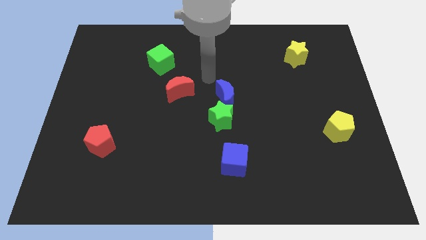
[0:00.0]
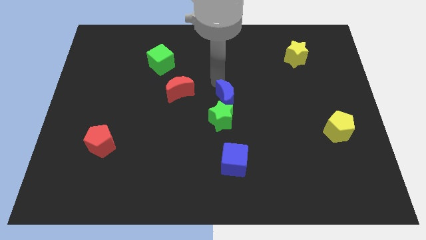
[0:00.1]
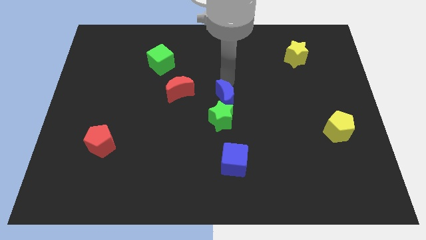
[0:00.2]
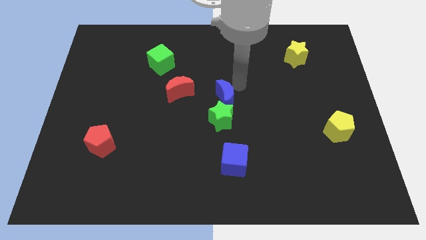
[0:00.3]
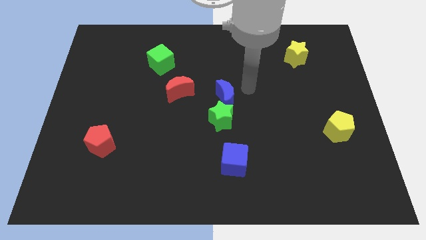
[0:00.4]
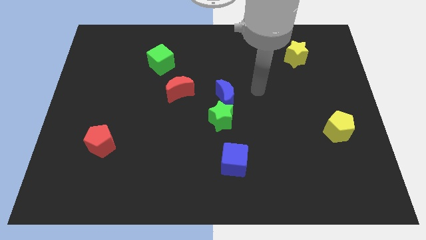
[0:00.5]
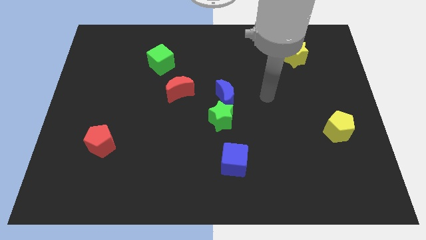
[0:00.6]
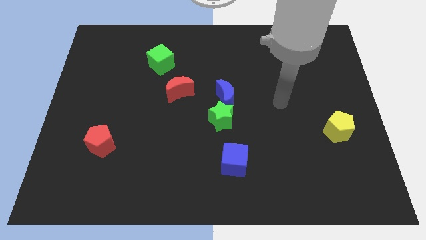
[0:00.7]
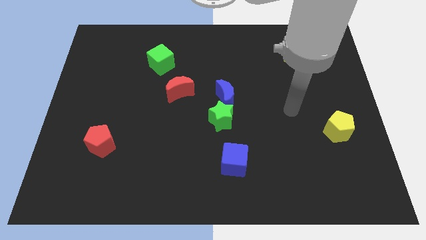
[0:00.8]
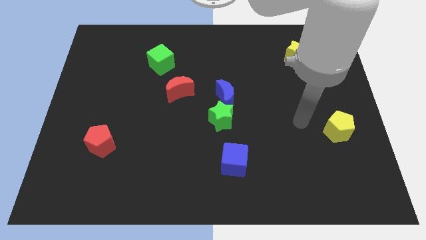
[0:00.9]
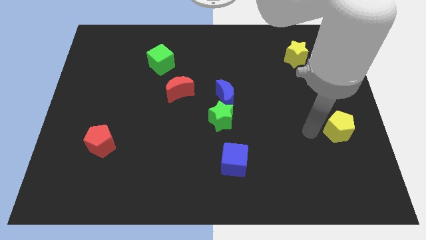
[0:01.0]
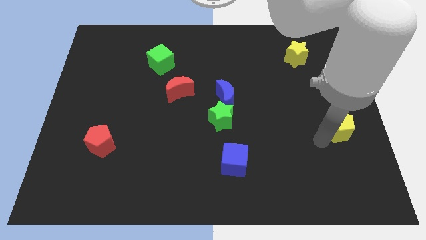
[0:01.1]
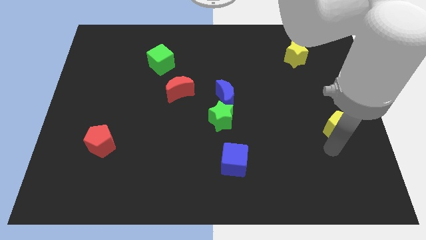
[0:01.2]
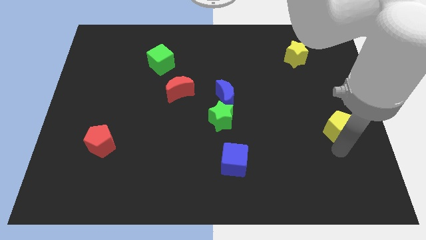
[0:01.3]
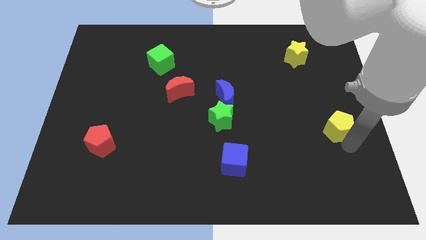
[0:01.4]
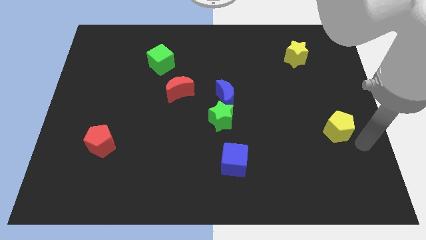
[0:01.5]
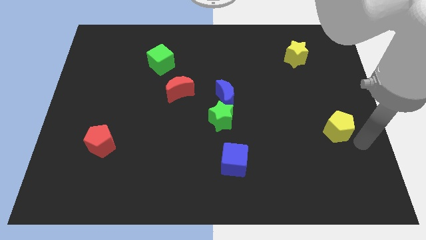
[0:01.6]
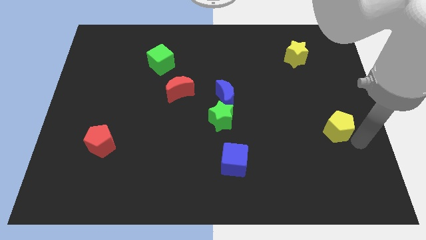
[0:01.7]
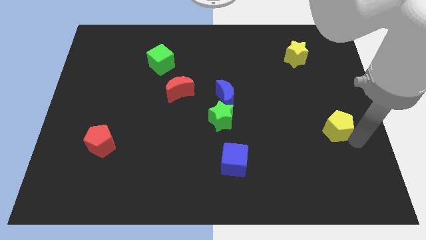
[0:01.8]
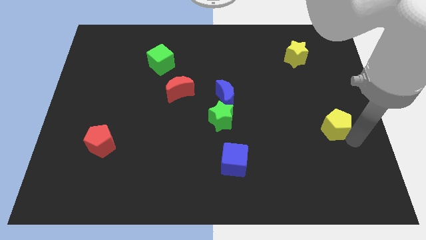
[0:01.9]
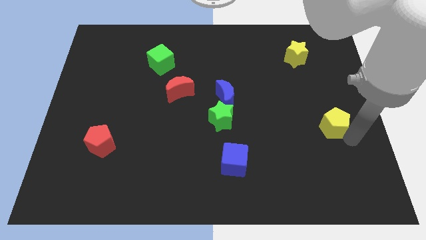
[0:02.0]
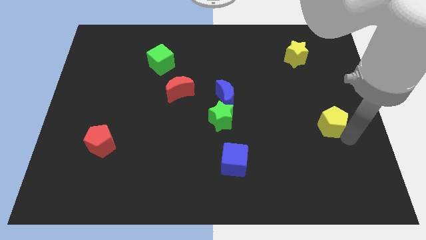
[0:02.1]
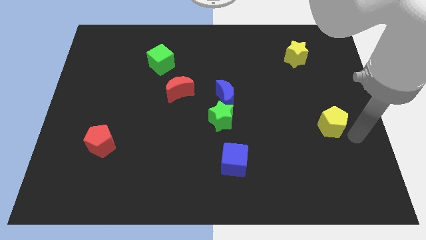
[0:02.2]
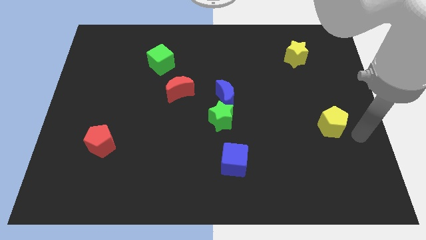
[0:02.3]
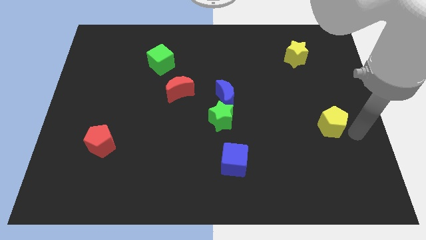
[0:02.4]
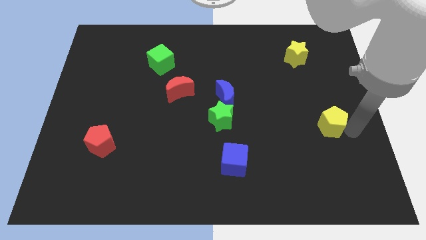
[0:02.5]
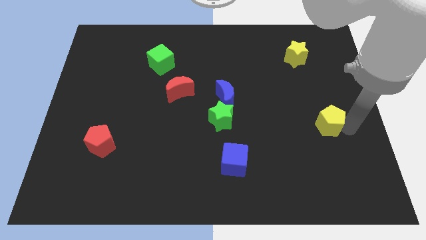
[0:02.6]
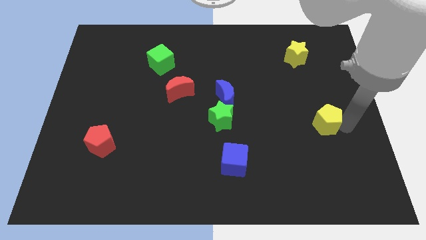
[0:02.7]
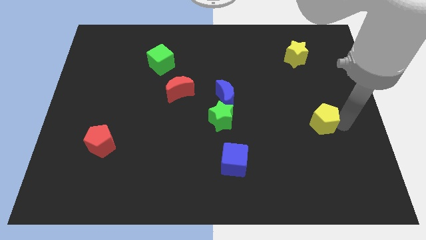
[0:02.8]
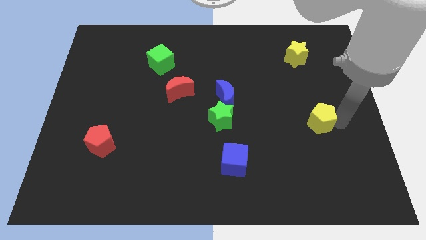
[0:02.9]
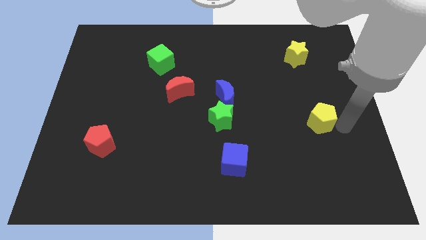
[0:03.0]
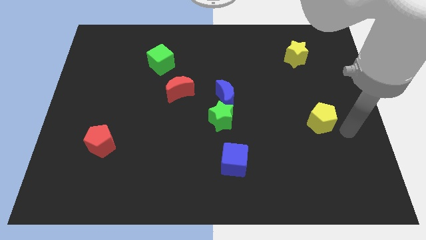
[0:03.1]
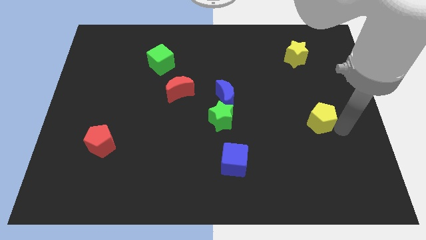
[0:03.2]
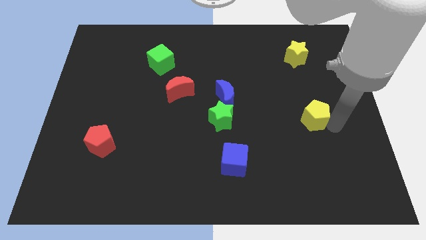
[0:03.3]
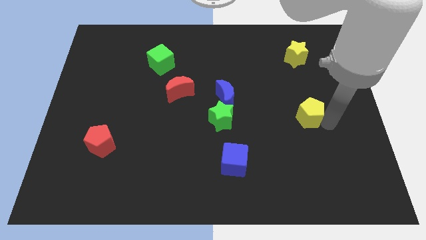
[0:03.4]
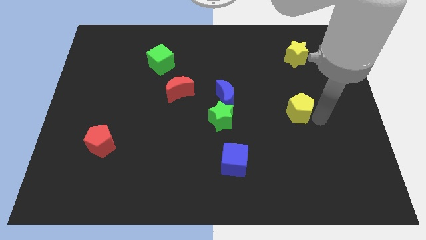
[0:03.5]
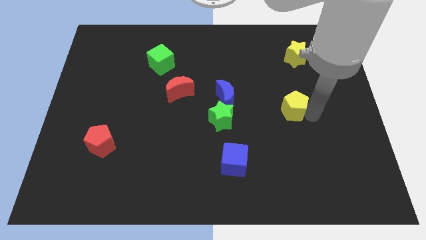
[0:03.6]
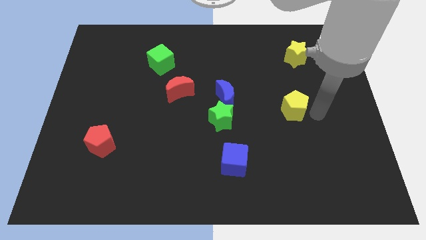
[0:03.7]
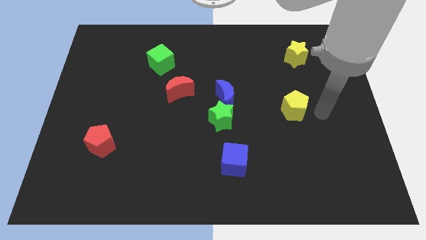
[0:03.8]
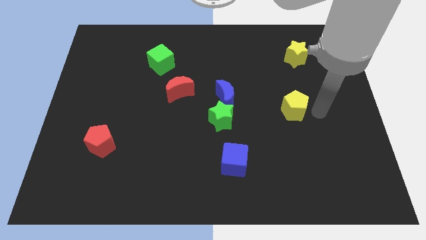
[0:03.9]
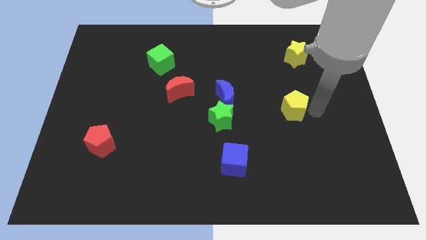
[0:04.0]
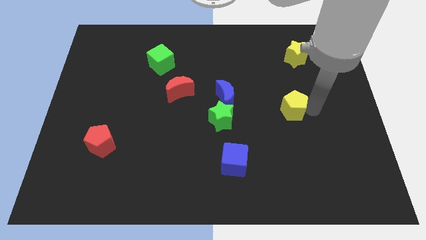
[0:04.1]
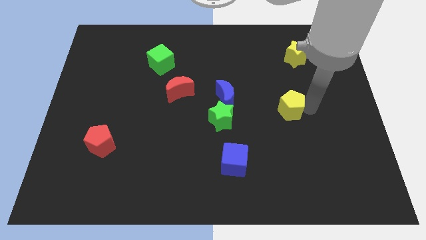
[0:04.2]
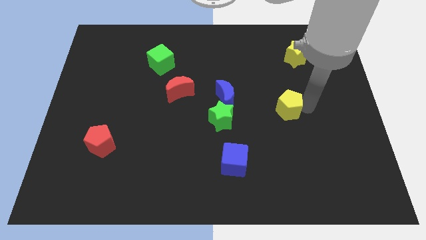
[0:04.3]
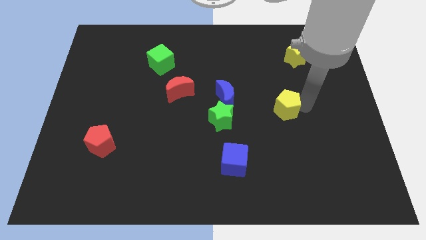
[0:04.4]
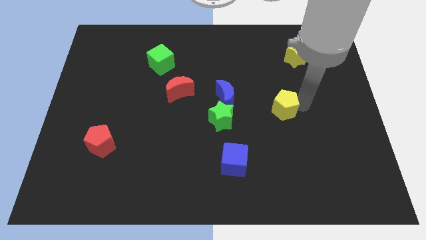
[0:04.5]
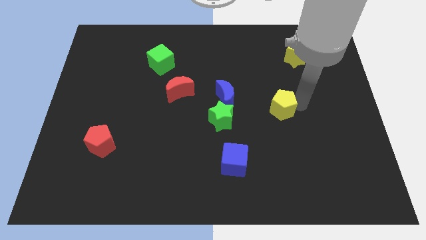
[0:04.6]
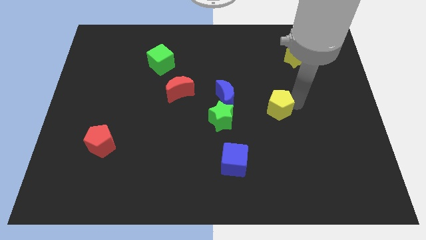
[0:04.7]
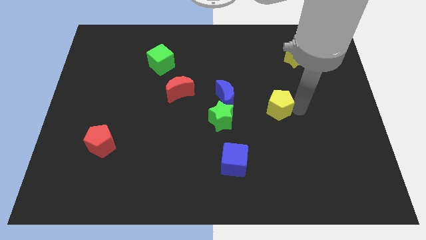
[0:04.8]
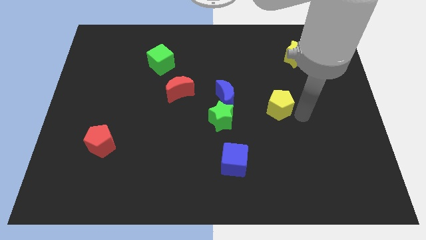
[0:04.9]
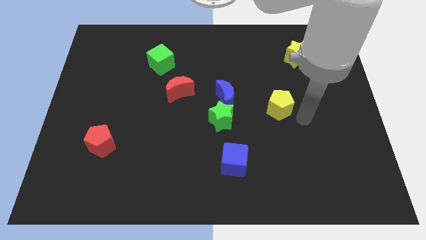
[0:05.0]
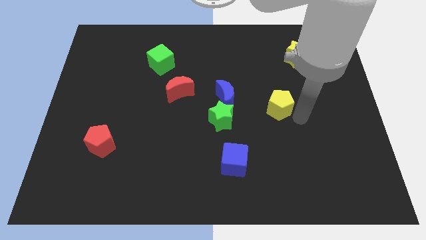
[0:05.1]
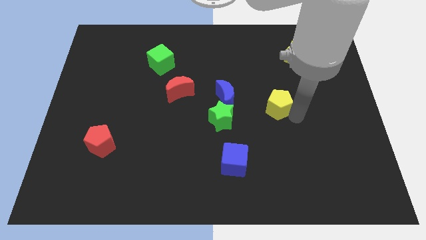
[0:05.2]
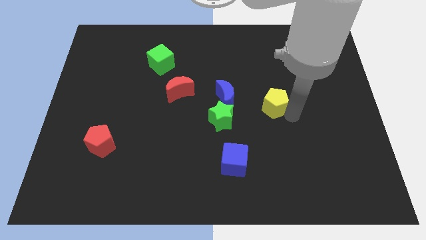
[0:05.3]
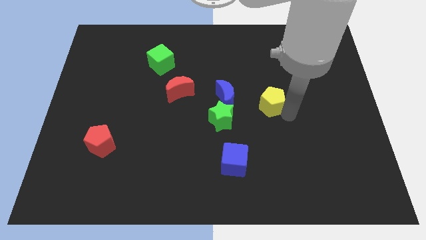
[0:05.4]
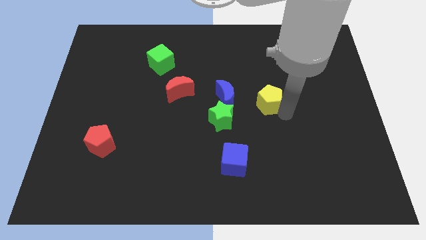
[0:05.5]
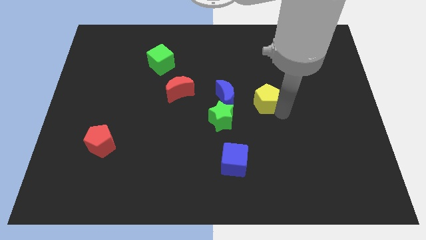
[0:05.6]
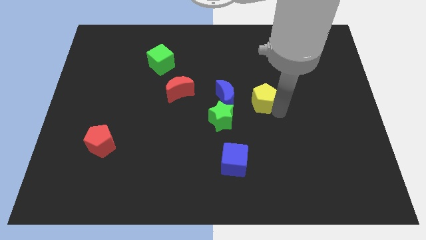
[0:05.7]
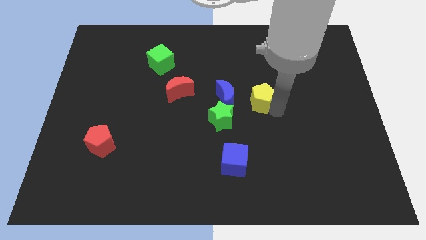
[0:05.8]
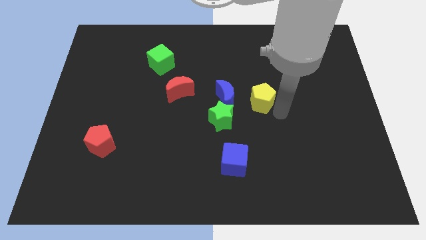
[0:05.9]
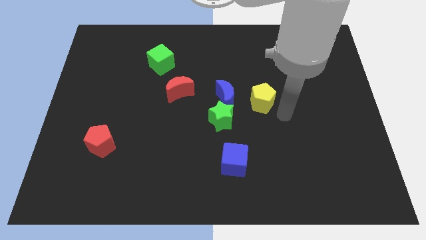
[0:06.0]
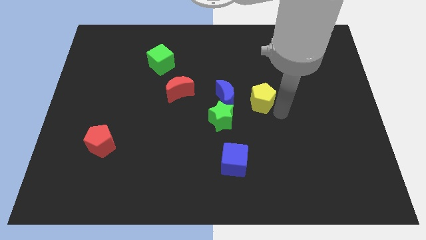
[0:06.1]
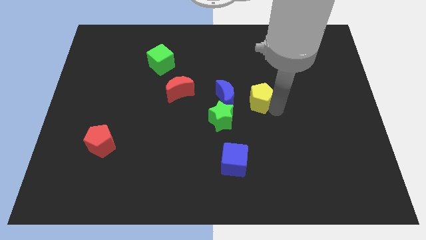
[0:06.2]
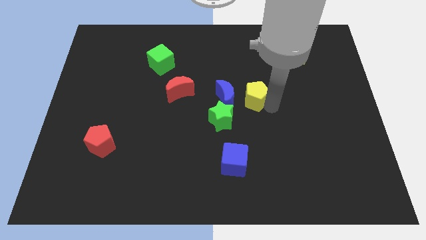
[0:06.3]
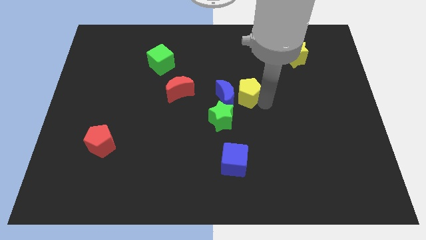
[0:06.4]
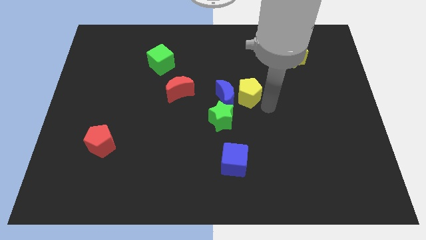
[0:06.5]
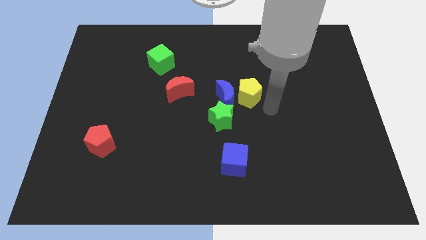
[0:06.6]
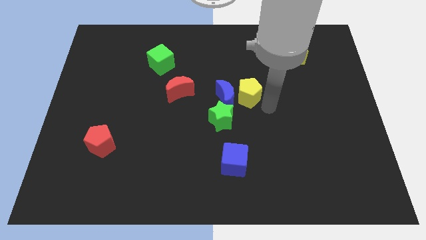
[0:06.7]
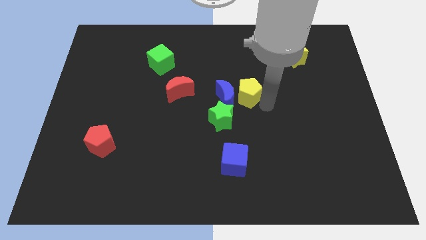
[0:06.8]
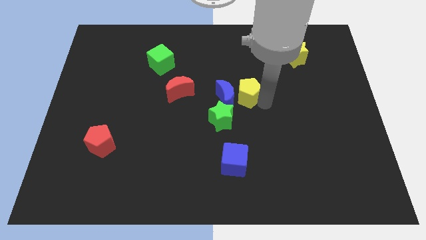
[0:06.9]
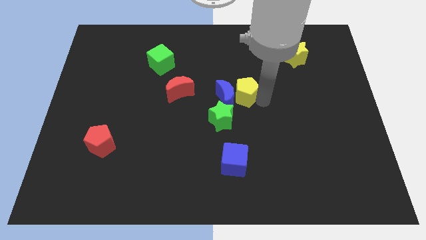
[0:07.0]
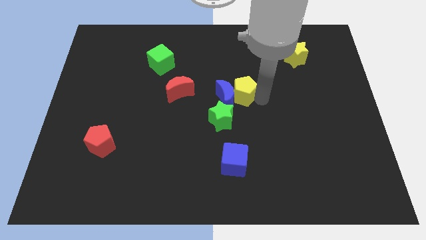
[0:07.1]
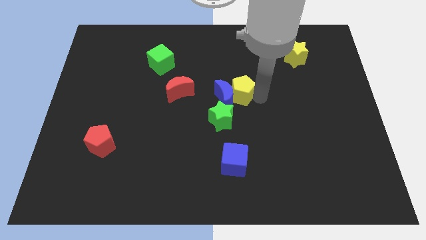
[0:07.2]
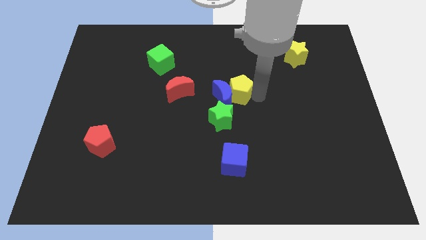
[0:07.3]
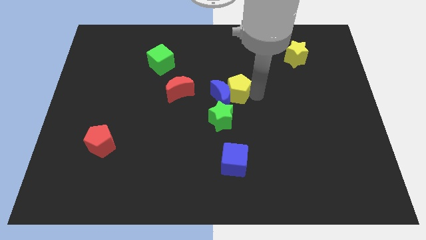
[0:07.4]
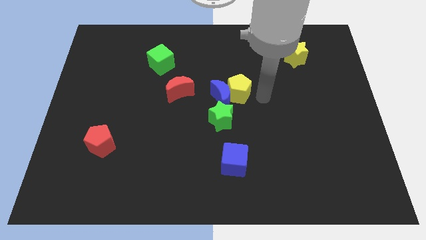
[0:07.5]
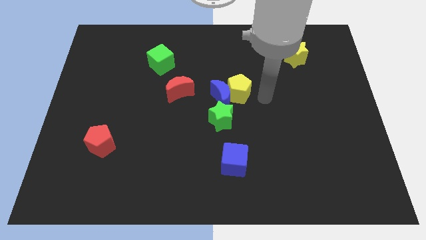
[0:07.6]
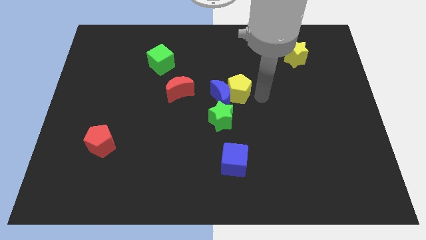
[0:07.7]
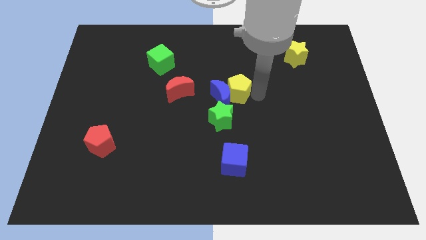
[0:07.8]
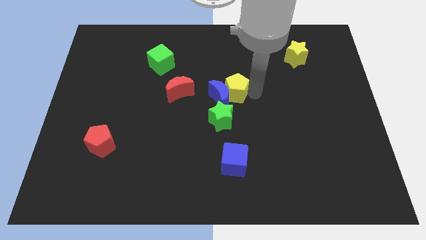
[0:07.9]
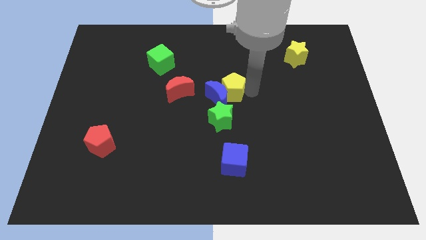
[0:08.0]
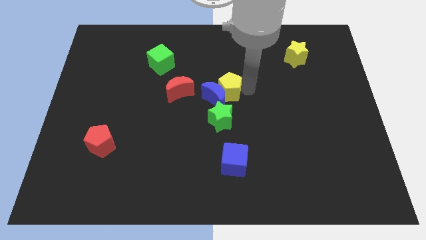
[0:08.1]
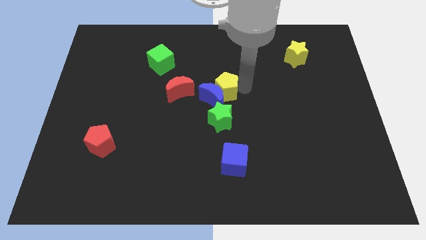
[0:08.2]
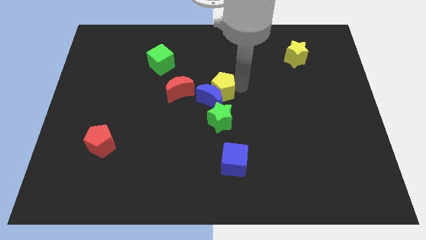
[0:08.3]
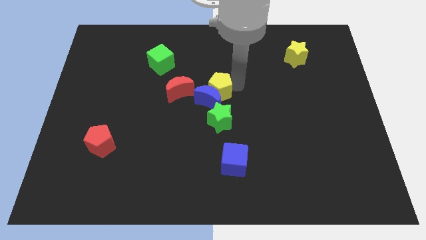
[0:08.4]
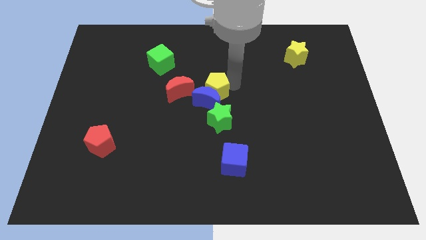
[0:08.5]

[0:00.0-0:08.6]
move the yellow pentagon to the top left of the blue moon
